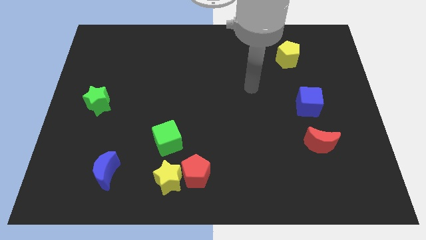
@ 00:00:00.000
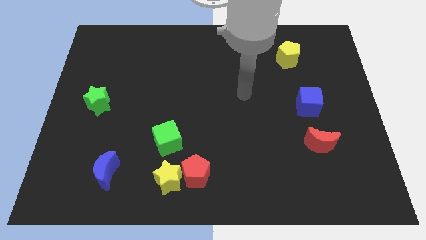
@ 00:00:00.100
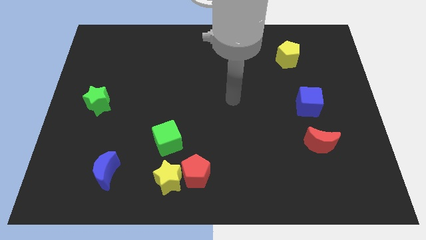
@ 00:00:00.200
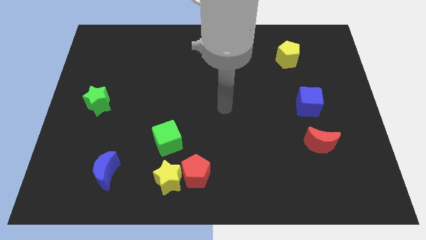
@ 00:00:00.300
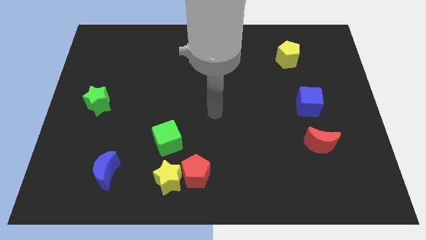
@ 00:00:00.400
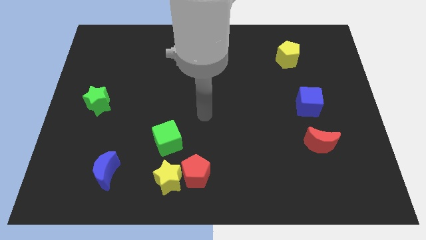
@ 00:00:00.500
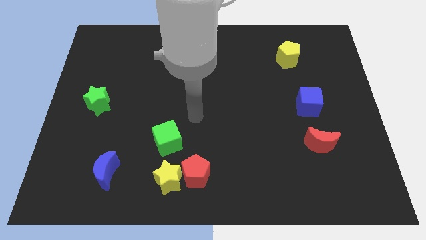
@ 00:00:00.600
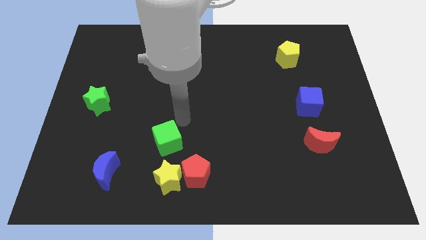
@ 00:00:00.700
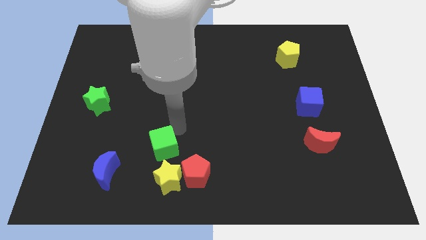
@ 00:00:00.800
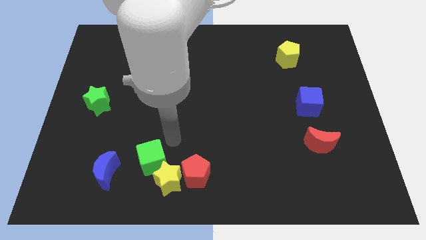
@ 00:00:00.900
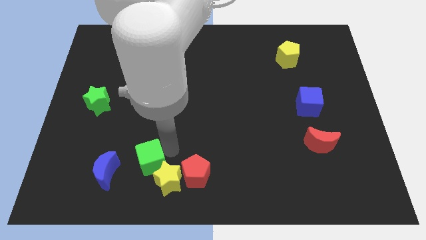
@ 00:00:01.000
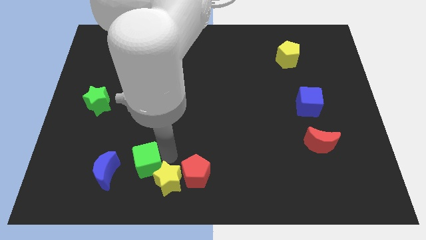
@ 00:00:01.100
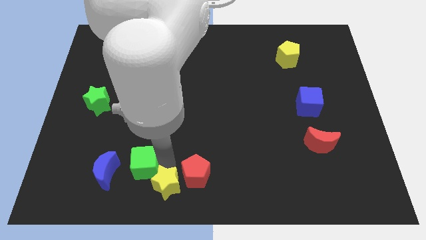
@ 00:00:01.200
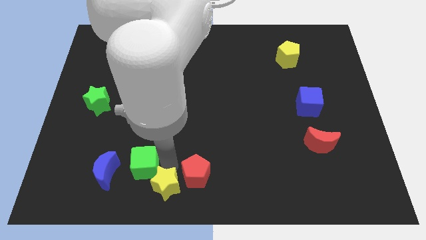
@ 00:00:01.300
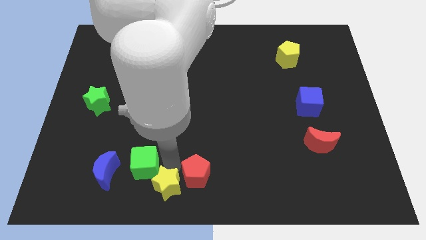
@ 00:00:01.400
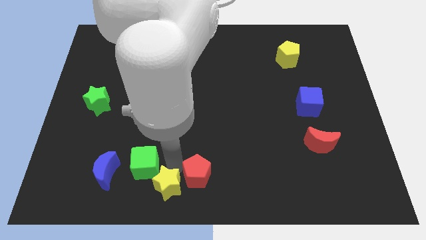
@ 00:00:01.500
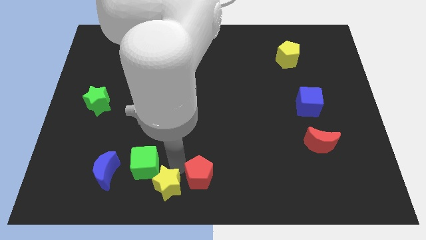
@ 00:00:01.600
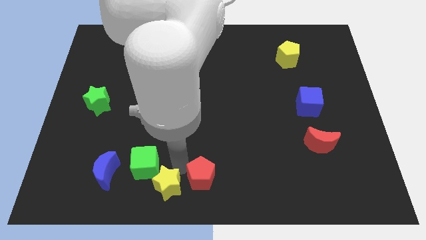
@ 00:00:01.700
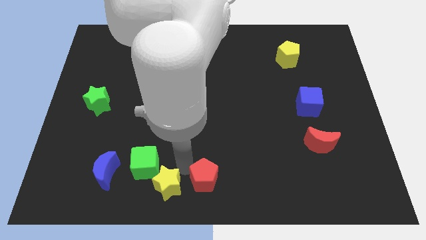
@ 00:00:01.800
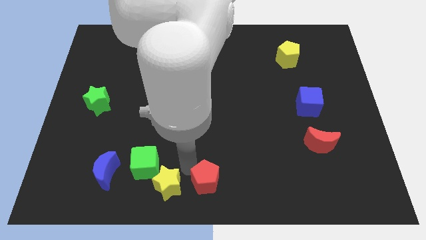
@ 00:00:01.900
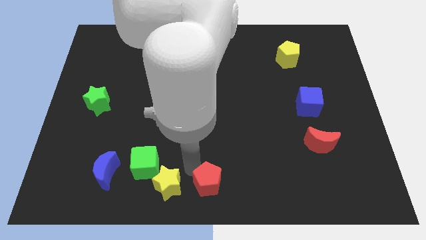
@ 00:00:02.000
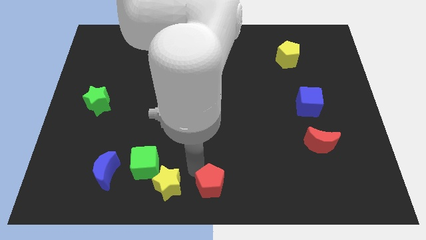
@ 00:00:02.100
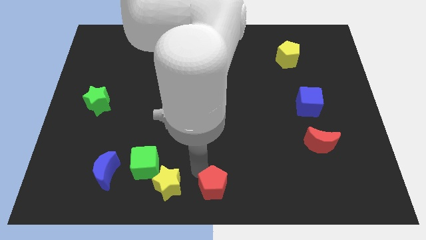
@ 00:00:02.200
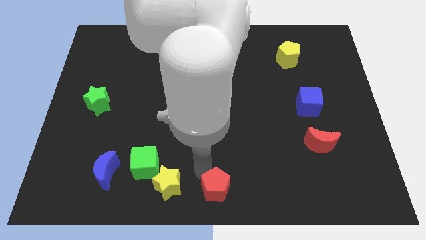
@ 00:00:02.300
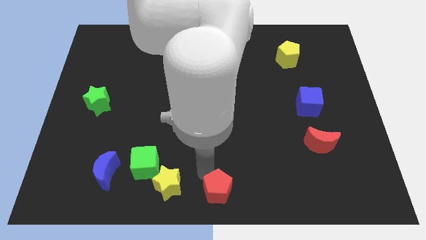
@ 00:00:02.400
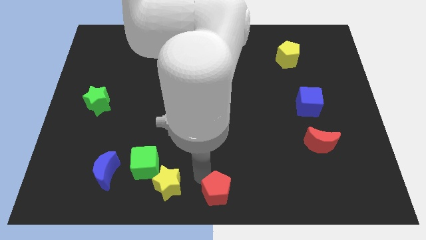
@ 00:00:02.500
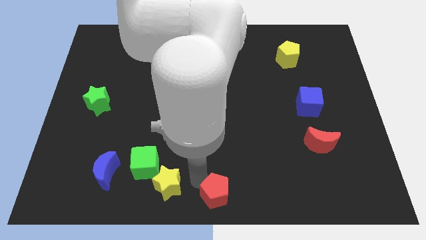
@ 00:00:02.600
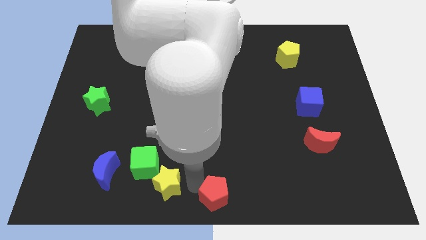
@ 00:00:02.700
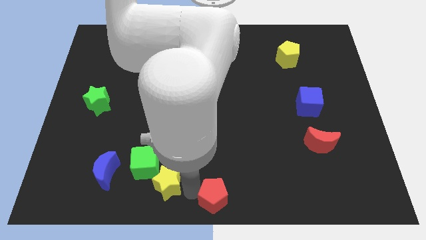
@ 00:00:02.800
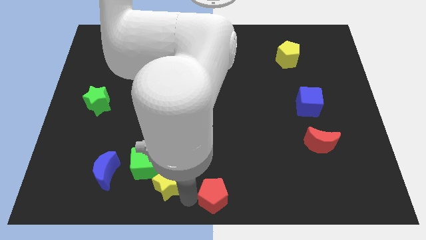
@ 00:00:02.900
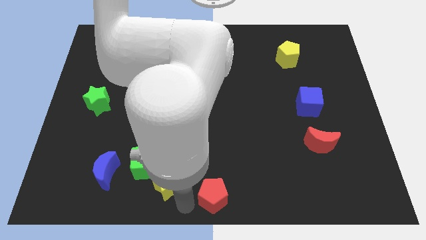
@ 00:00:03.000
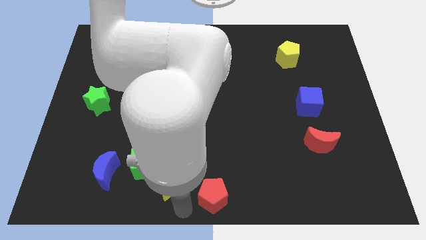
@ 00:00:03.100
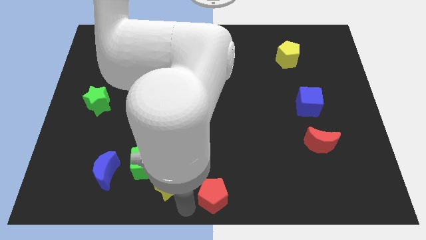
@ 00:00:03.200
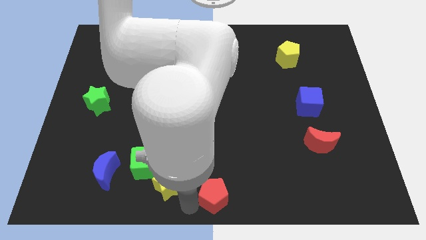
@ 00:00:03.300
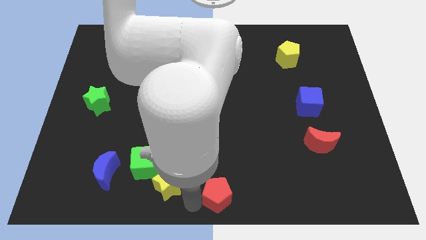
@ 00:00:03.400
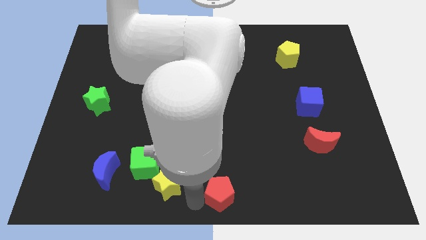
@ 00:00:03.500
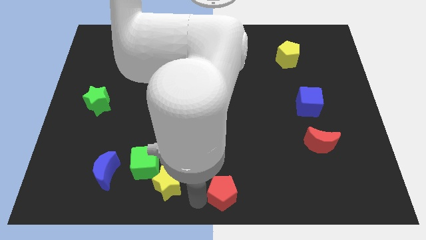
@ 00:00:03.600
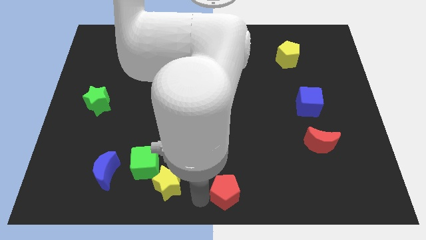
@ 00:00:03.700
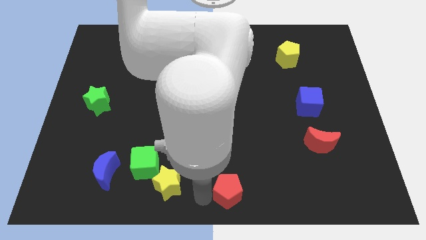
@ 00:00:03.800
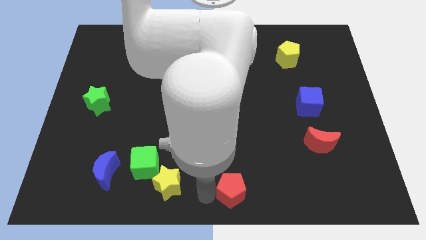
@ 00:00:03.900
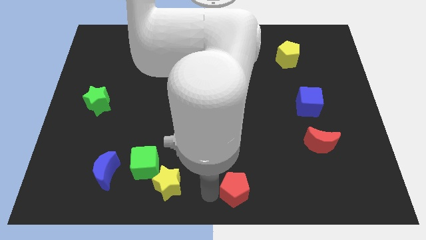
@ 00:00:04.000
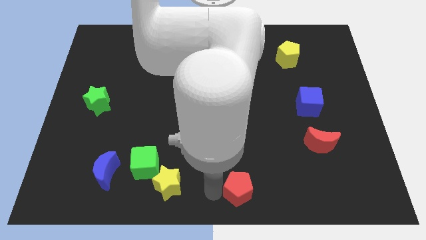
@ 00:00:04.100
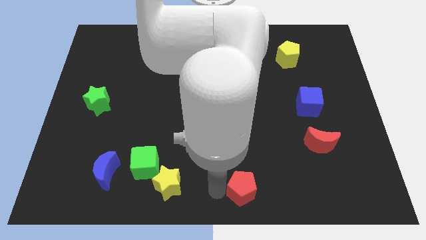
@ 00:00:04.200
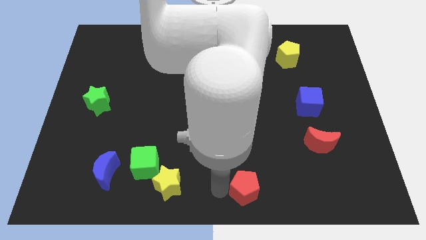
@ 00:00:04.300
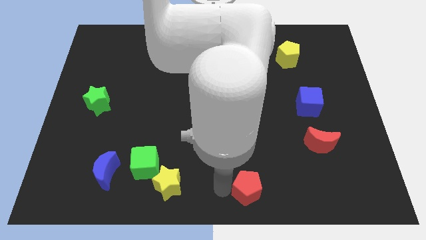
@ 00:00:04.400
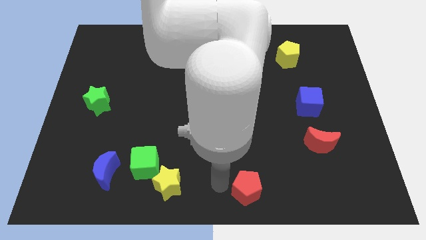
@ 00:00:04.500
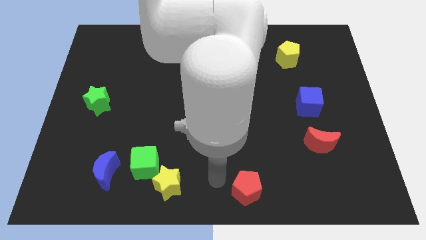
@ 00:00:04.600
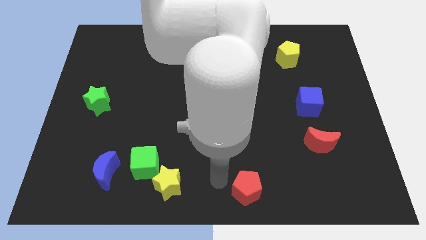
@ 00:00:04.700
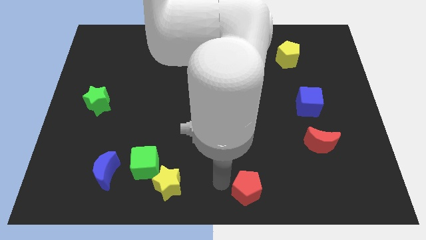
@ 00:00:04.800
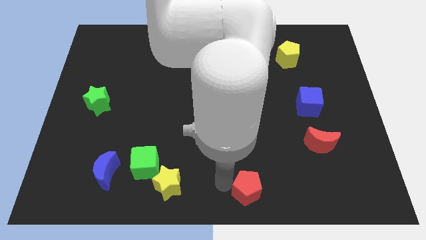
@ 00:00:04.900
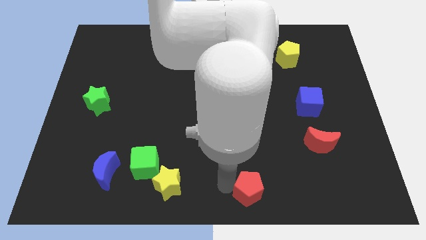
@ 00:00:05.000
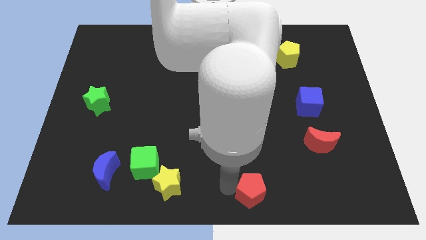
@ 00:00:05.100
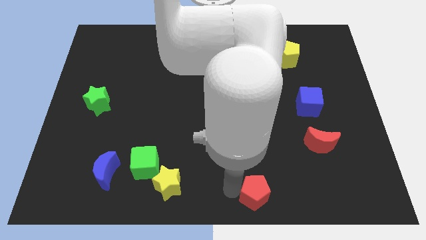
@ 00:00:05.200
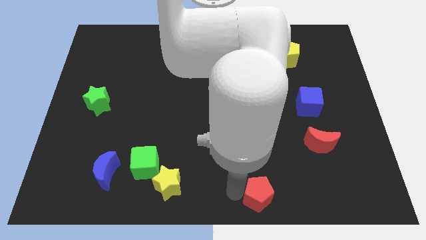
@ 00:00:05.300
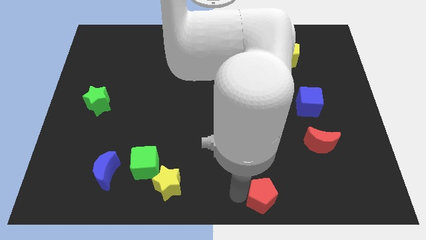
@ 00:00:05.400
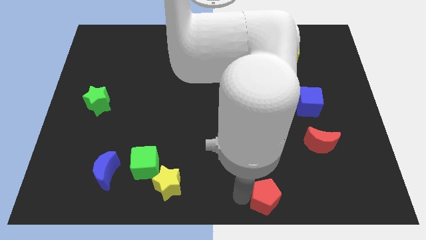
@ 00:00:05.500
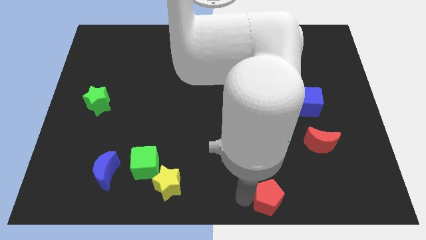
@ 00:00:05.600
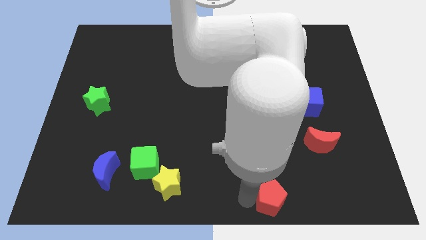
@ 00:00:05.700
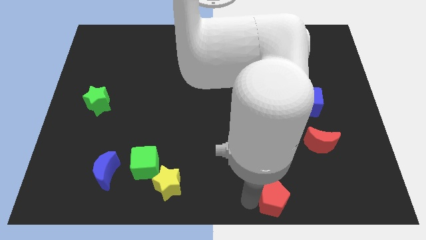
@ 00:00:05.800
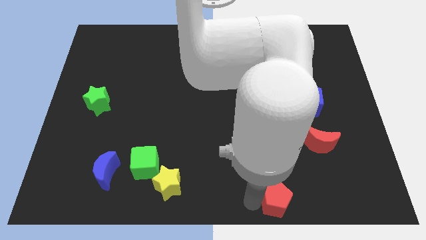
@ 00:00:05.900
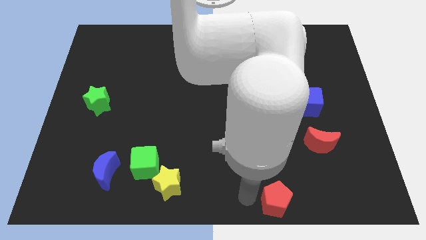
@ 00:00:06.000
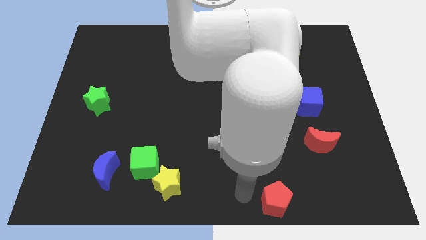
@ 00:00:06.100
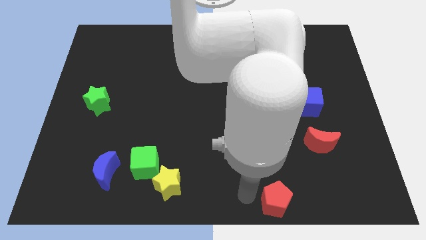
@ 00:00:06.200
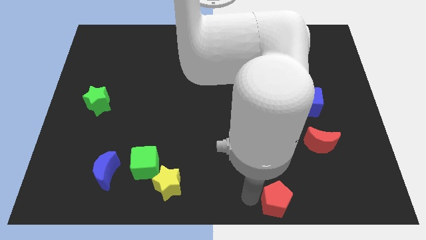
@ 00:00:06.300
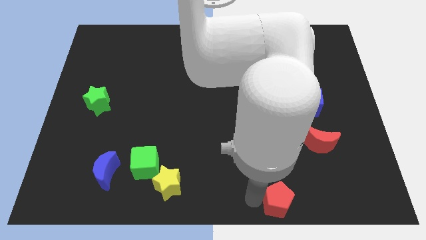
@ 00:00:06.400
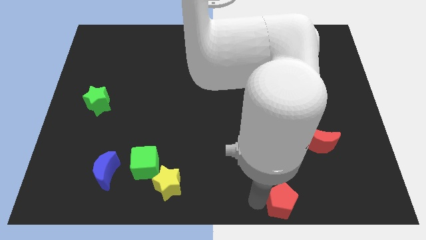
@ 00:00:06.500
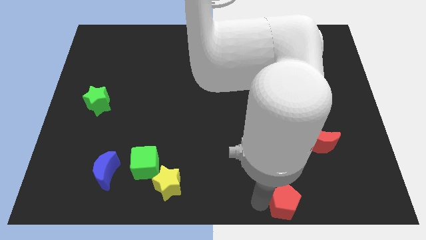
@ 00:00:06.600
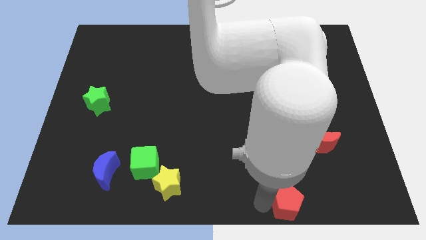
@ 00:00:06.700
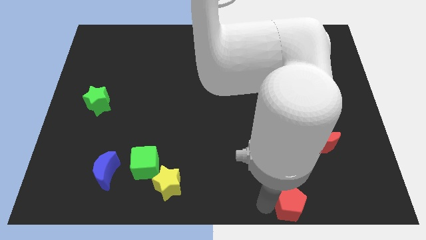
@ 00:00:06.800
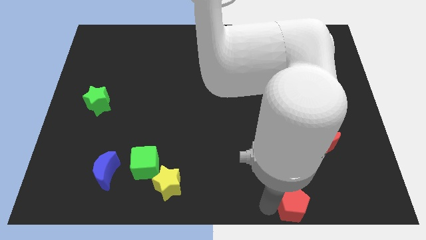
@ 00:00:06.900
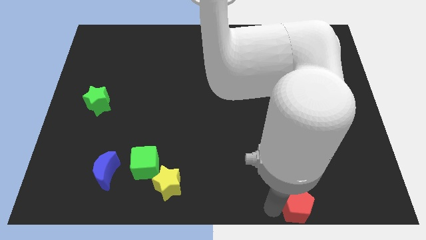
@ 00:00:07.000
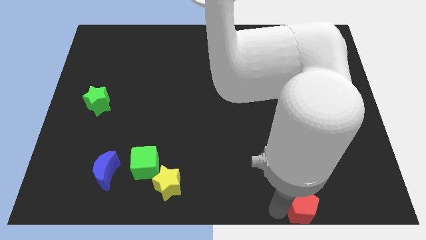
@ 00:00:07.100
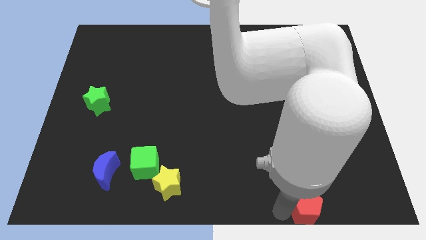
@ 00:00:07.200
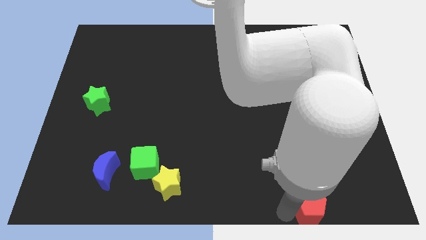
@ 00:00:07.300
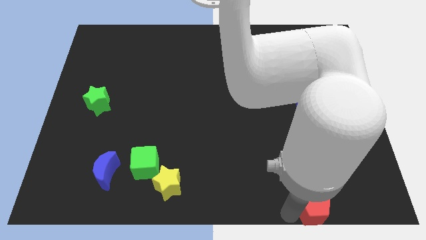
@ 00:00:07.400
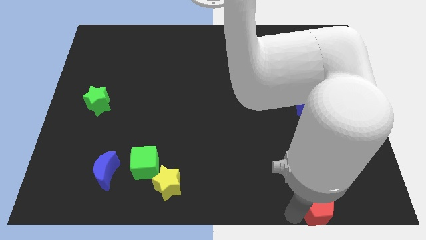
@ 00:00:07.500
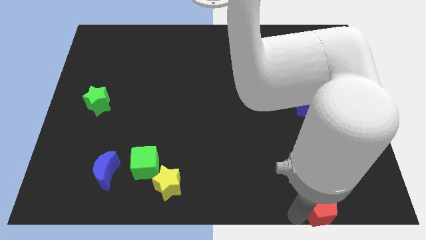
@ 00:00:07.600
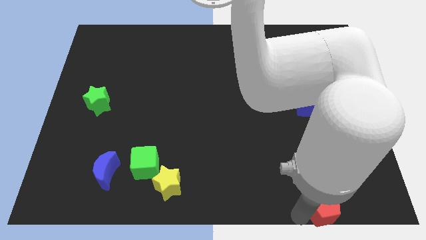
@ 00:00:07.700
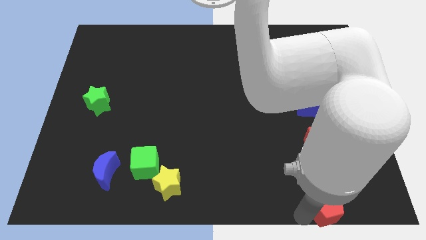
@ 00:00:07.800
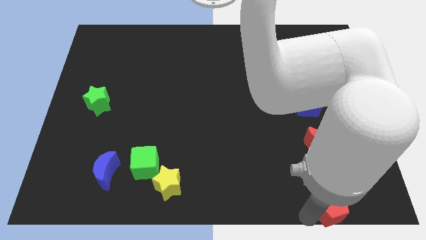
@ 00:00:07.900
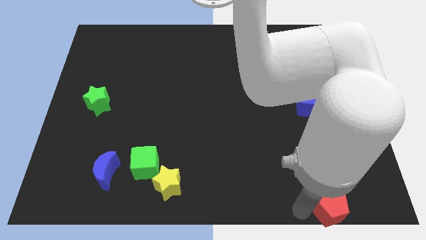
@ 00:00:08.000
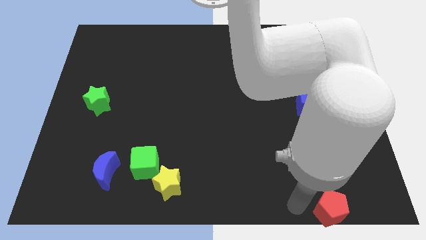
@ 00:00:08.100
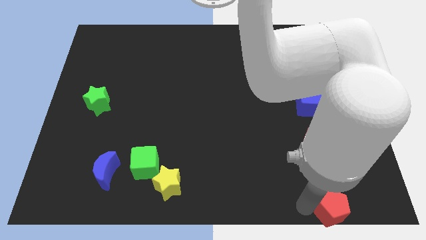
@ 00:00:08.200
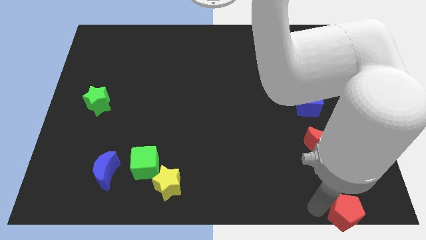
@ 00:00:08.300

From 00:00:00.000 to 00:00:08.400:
push the red pentagon to the bottom right
